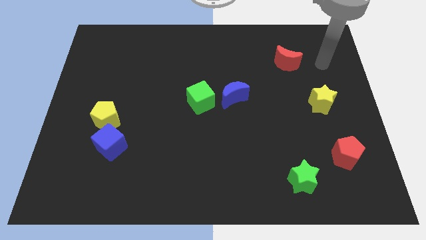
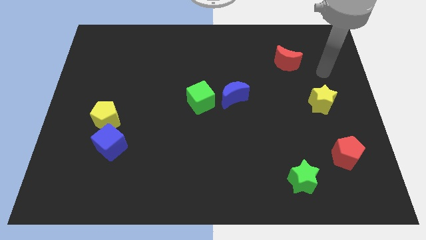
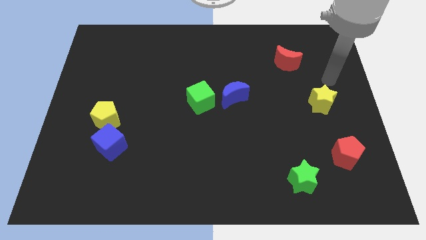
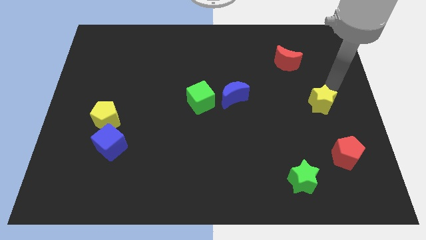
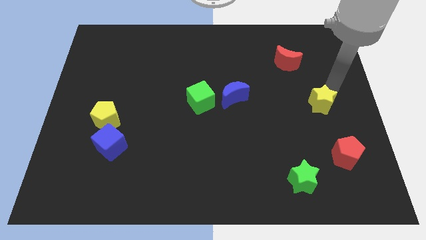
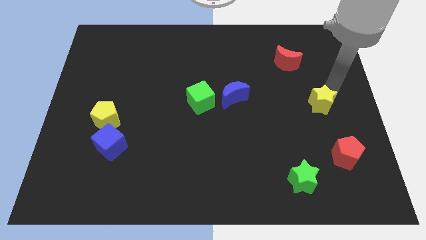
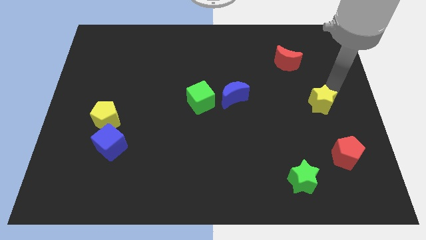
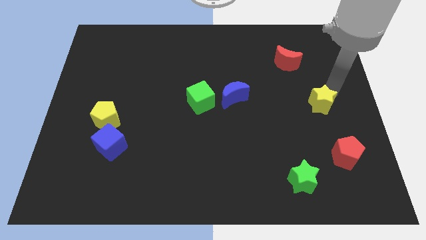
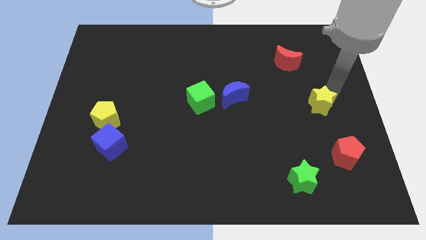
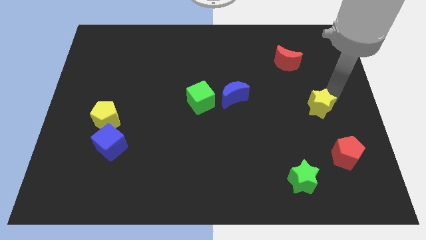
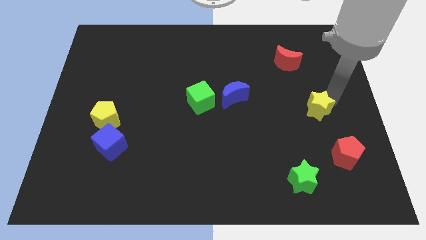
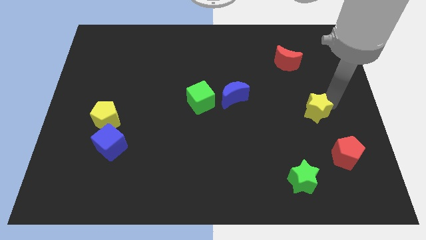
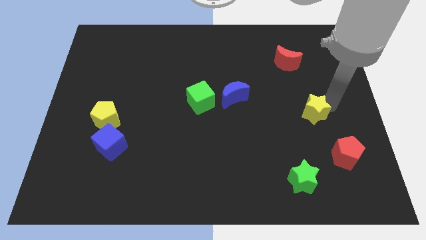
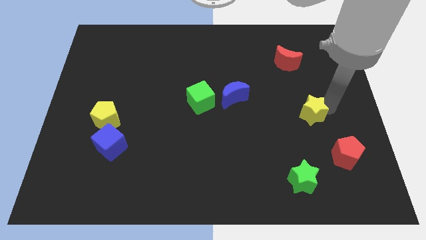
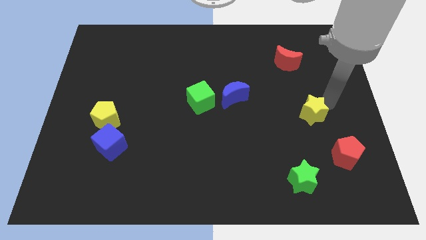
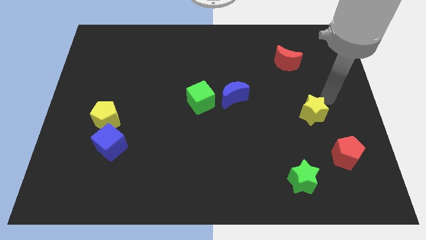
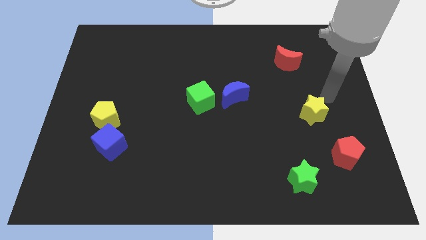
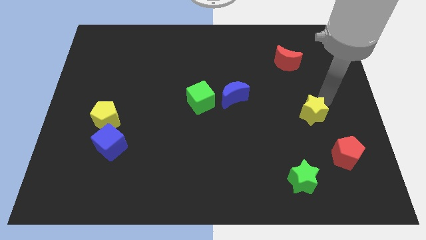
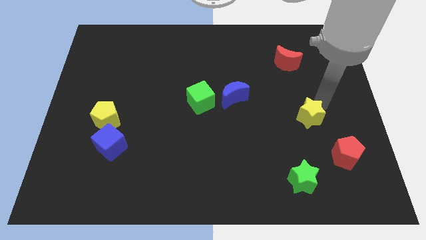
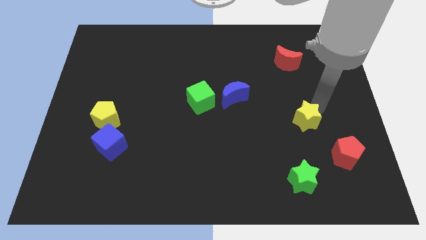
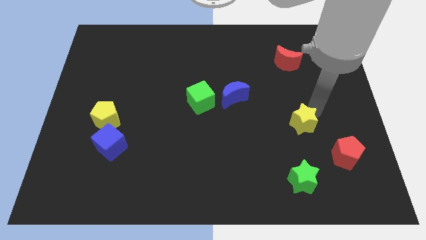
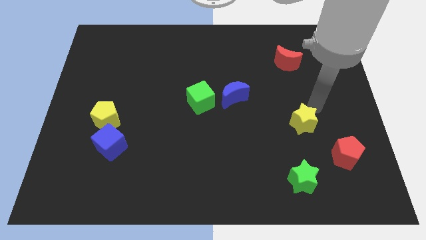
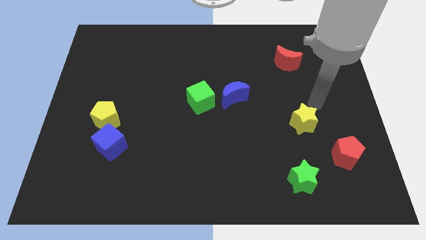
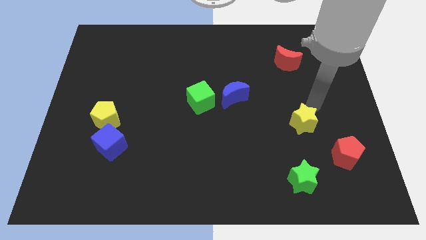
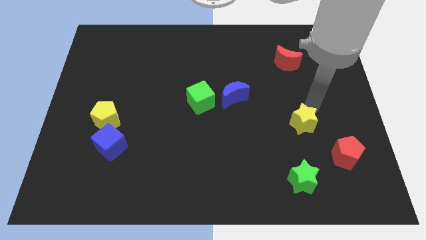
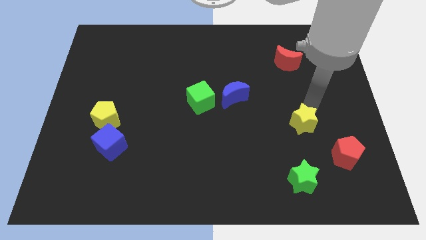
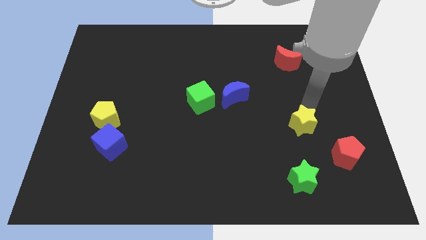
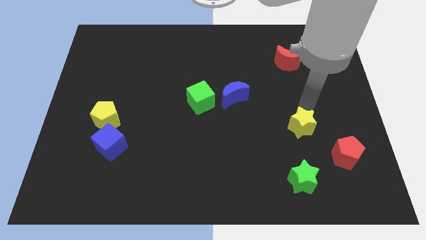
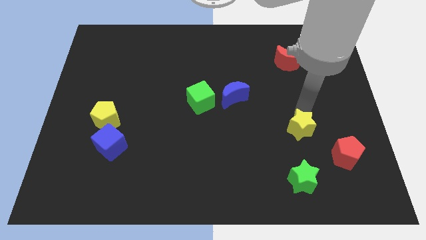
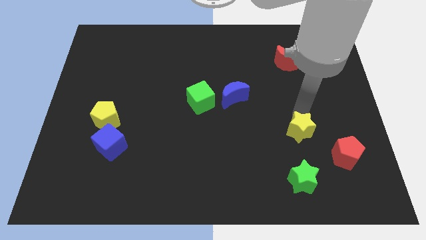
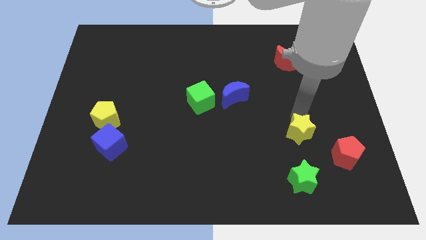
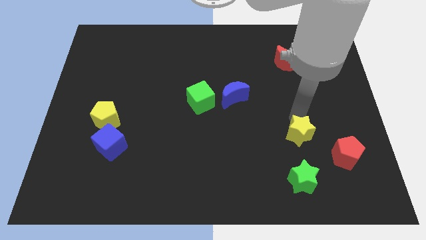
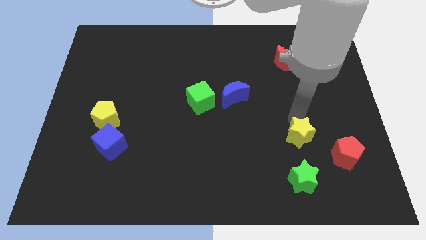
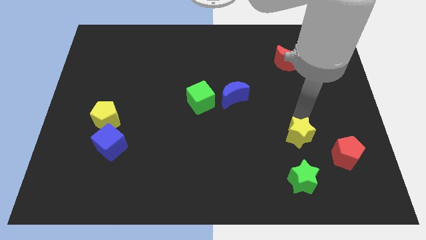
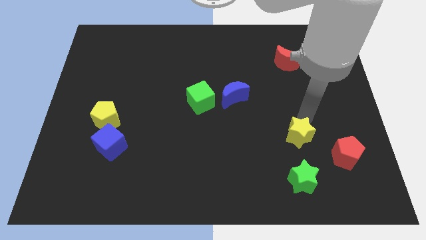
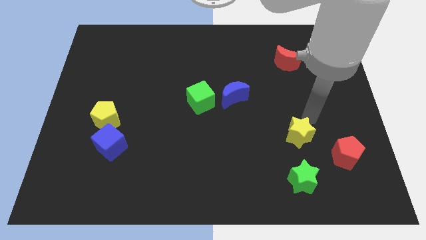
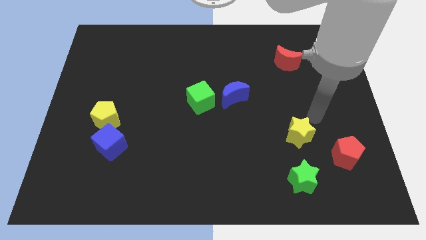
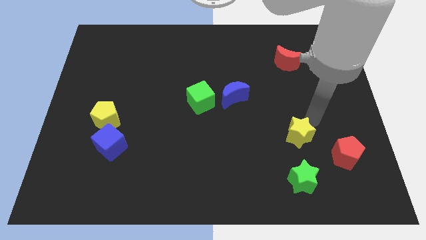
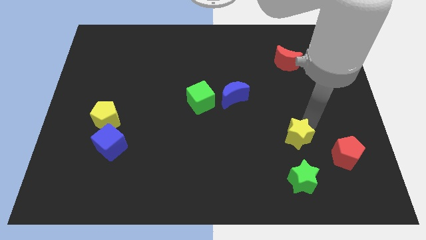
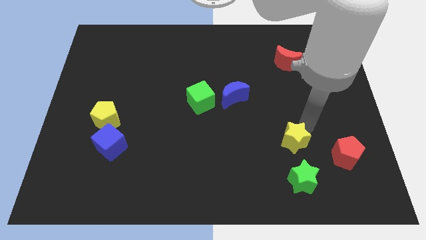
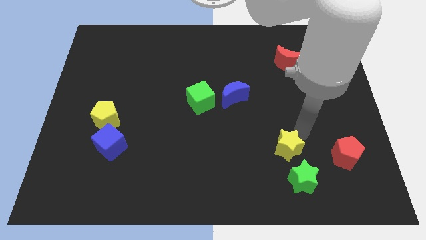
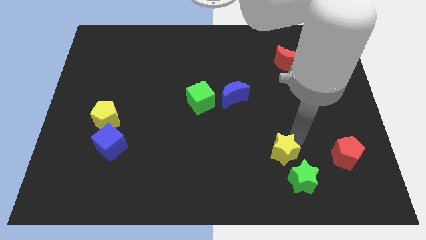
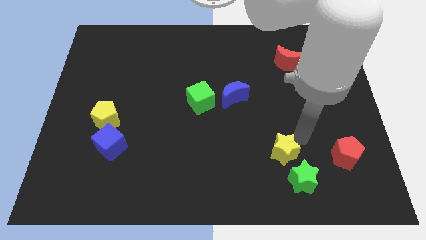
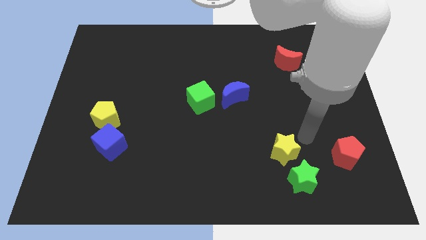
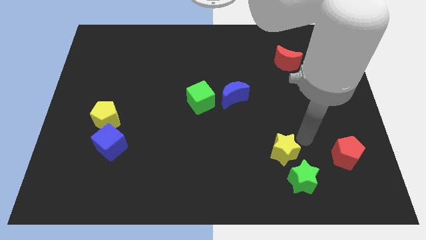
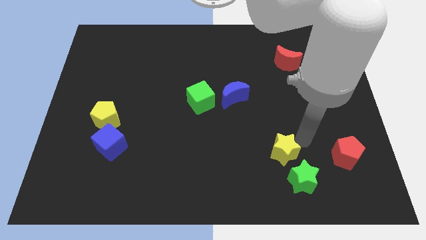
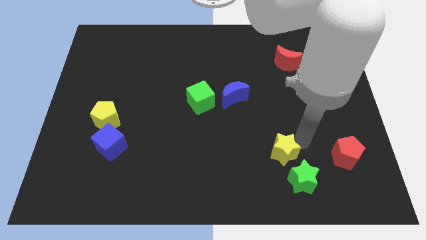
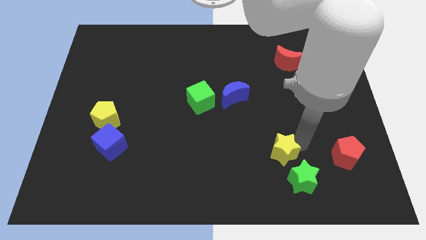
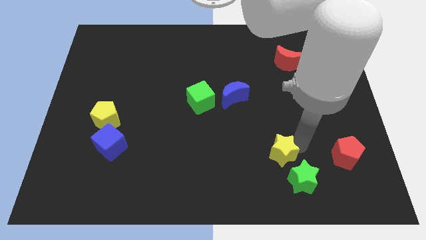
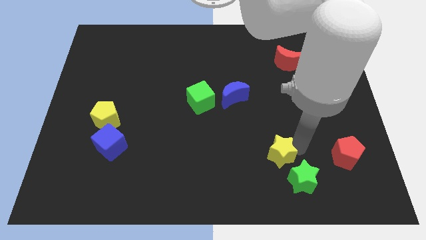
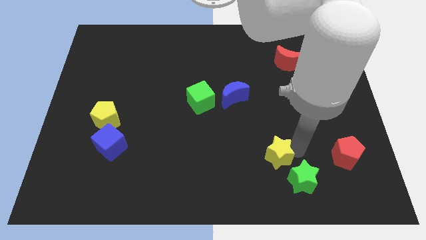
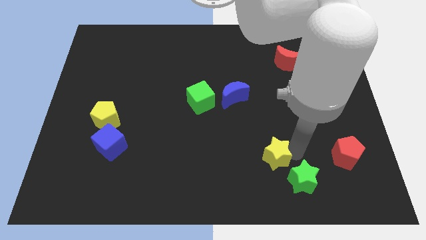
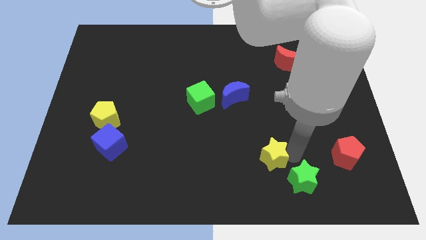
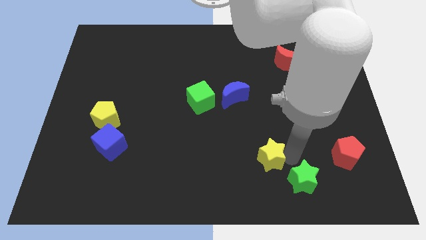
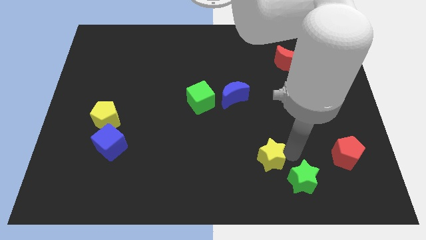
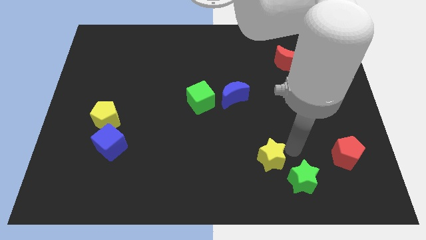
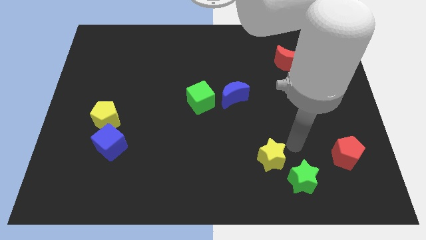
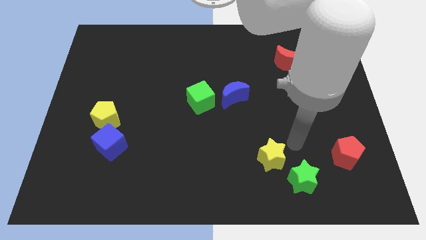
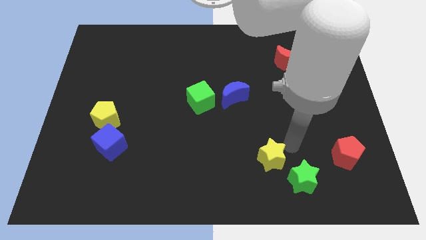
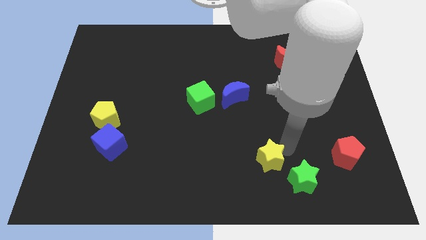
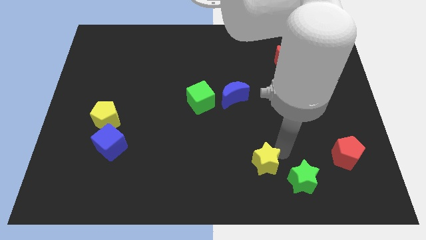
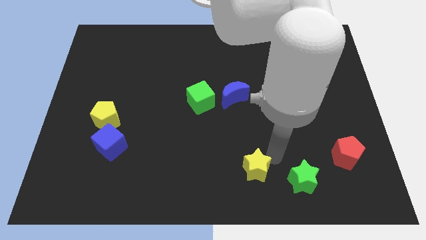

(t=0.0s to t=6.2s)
slide the yellow star to the bottom side

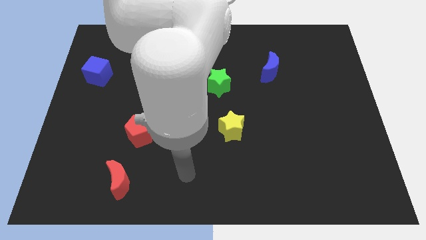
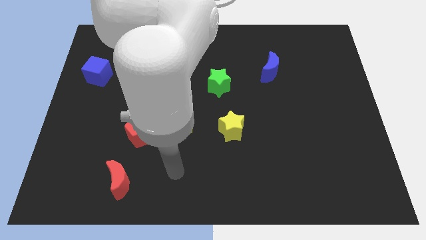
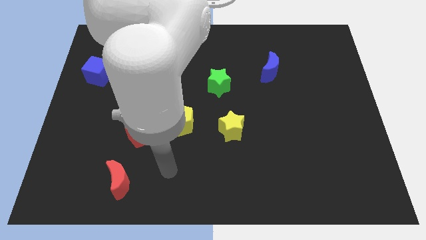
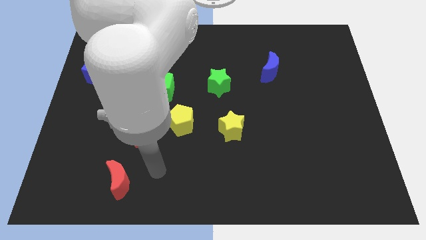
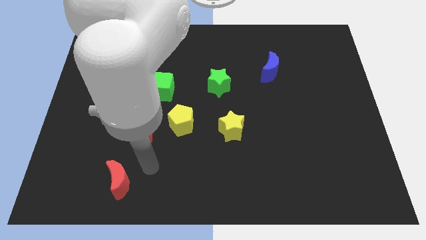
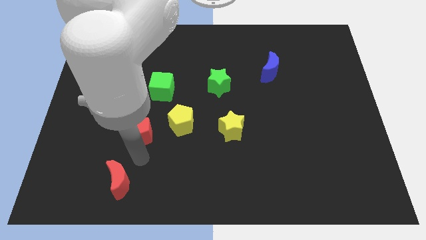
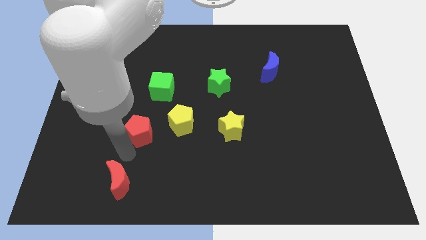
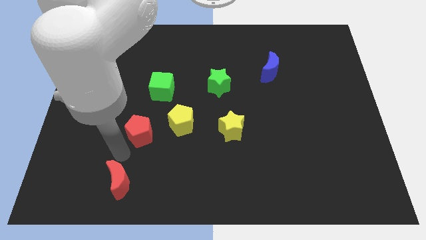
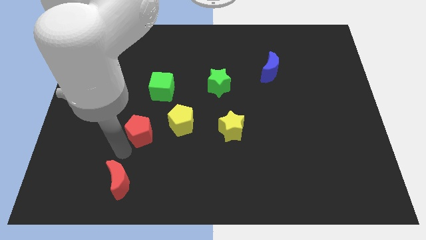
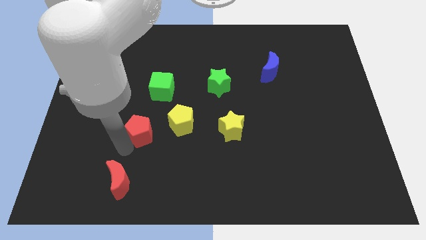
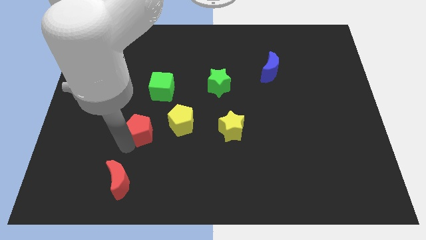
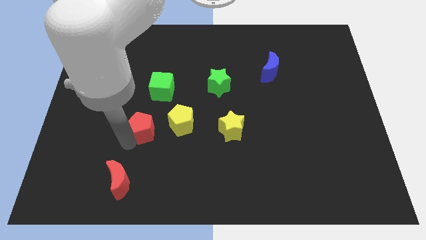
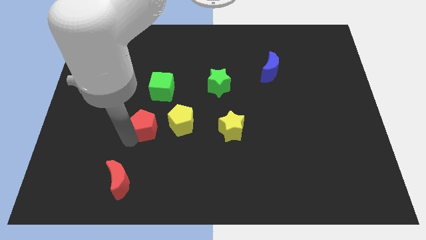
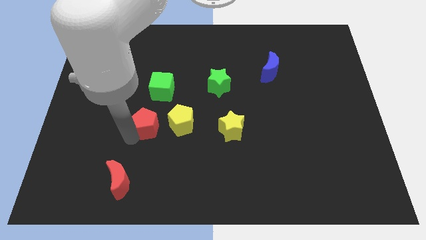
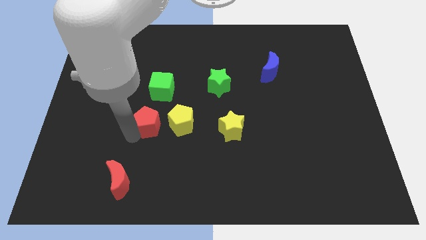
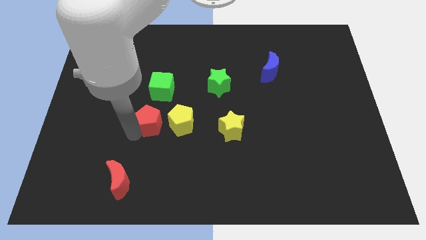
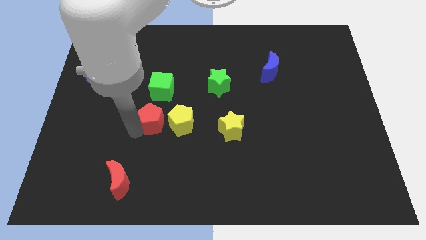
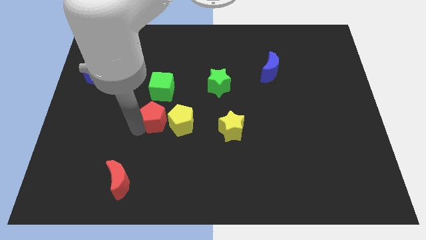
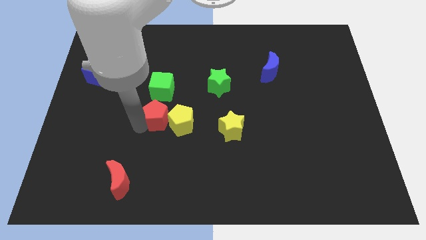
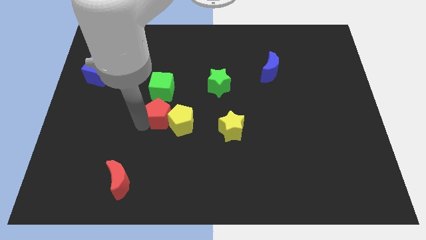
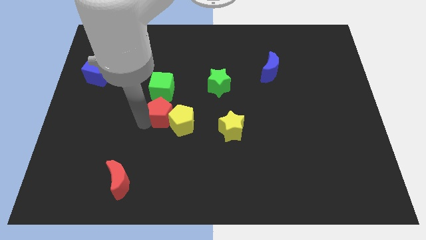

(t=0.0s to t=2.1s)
move the red pentagon to the middle of the board

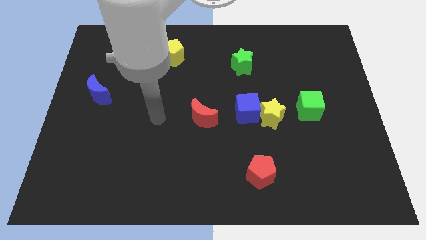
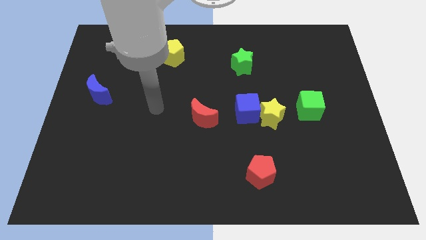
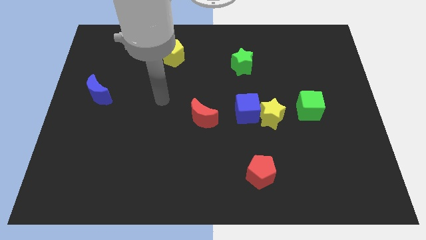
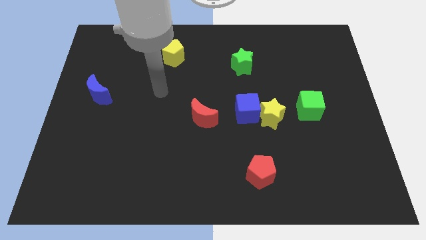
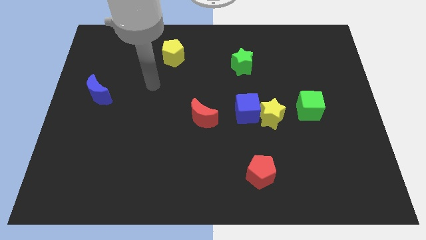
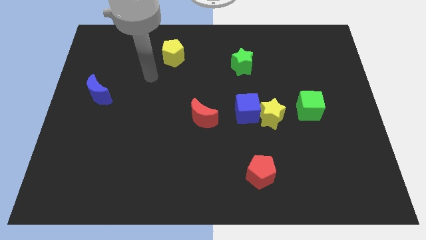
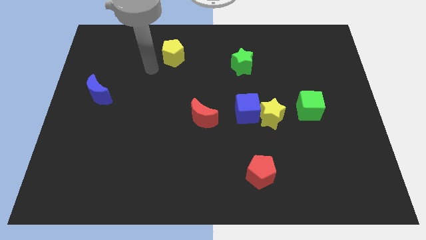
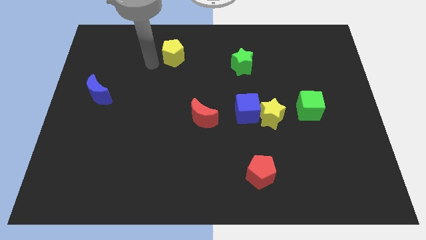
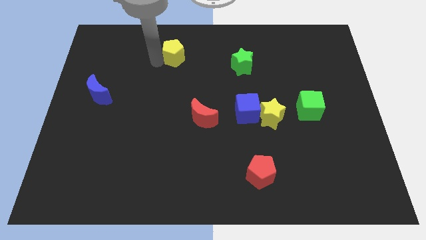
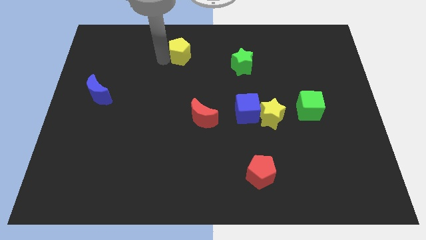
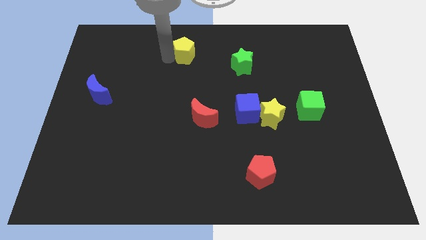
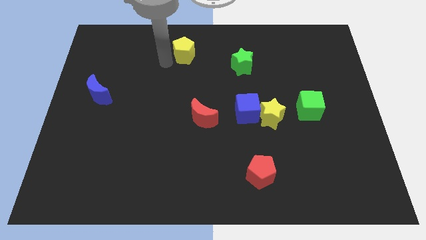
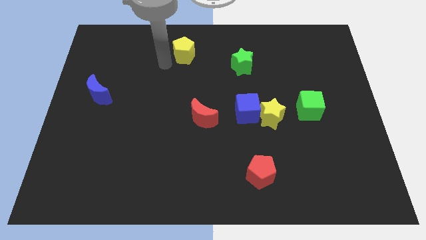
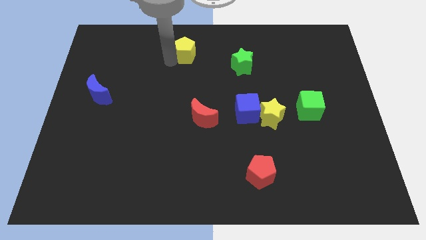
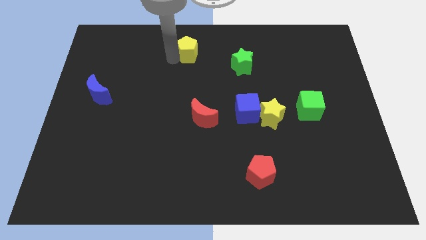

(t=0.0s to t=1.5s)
put the yellow pentagon to the towards your base
